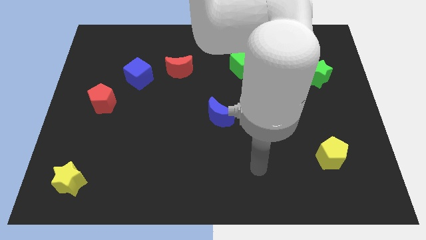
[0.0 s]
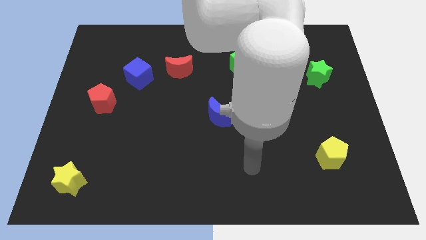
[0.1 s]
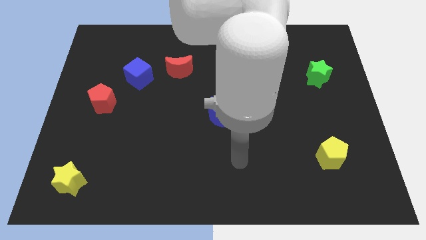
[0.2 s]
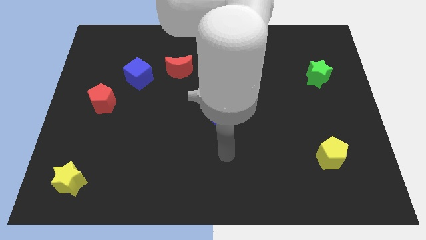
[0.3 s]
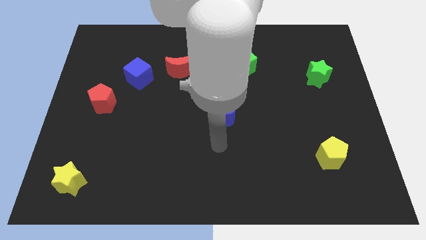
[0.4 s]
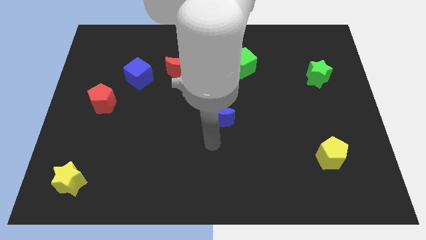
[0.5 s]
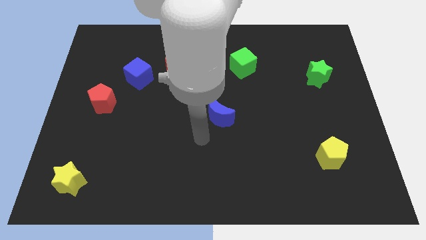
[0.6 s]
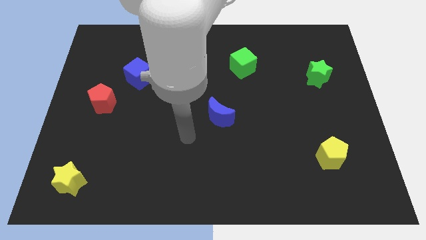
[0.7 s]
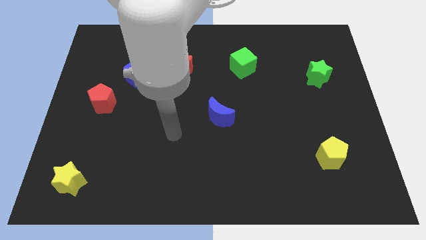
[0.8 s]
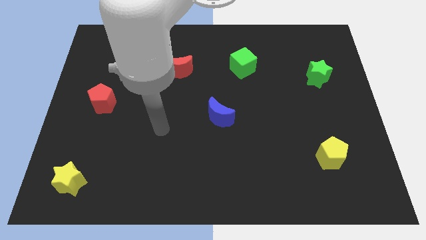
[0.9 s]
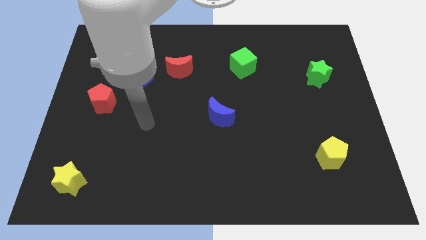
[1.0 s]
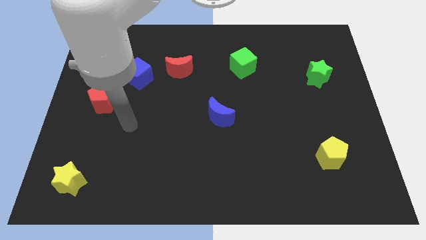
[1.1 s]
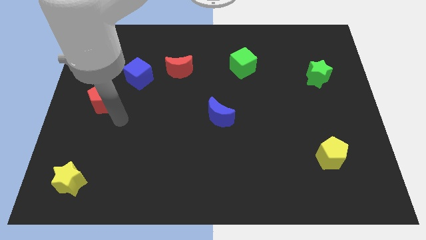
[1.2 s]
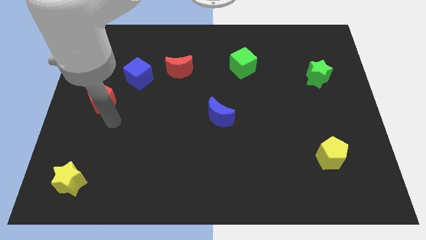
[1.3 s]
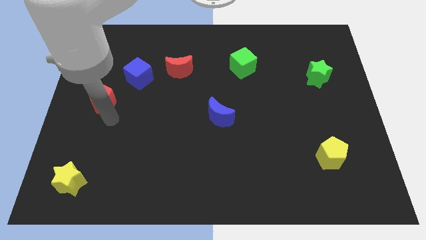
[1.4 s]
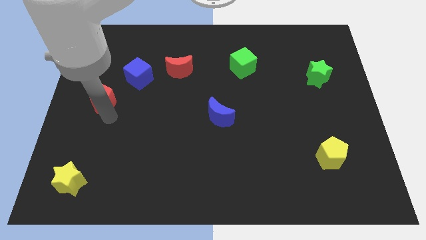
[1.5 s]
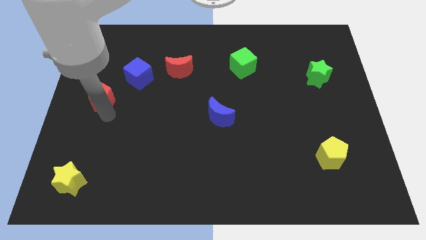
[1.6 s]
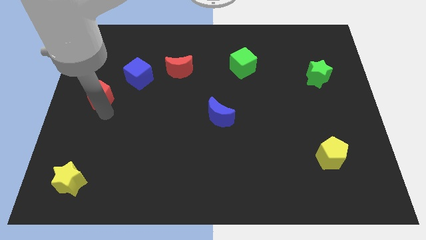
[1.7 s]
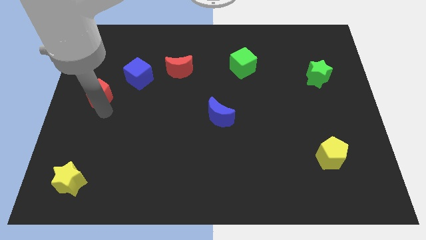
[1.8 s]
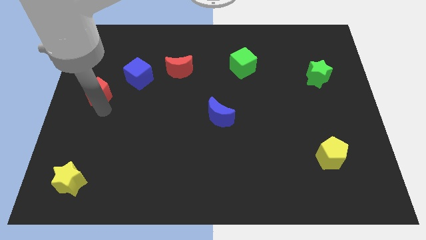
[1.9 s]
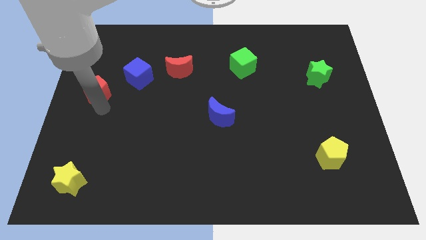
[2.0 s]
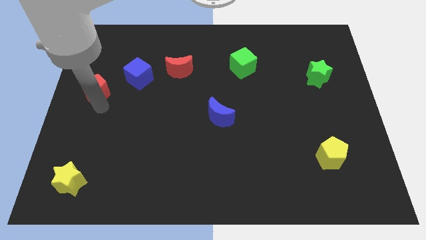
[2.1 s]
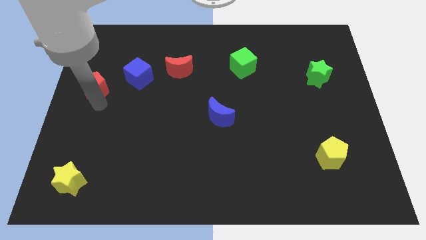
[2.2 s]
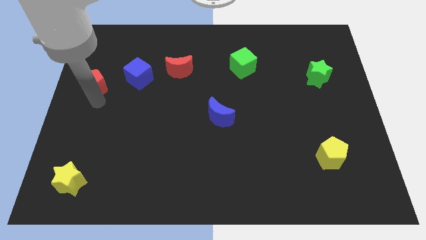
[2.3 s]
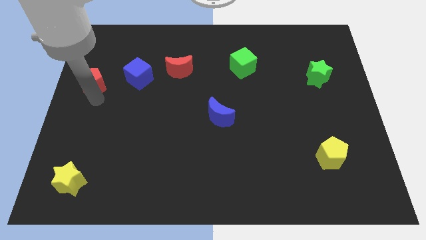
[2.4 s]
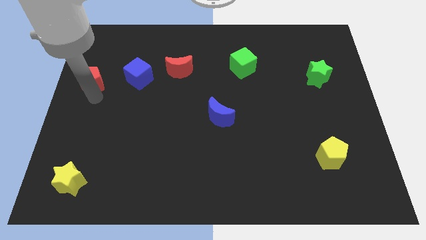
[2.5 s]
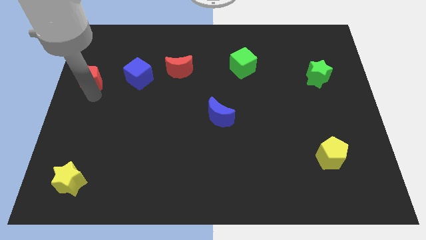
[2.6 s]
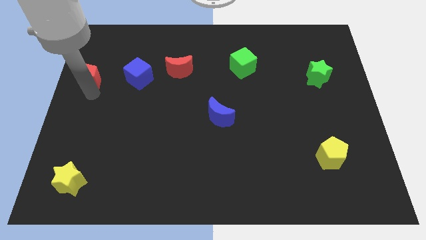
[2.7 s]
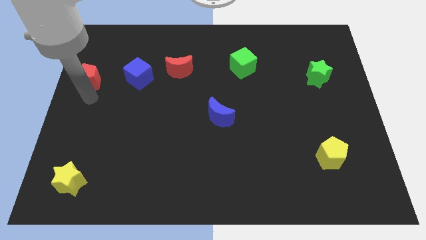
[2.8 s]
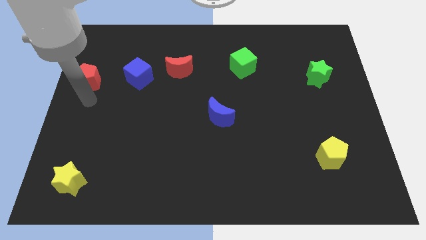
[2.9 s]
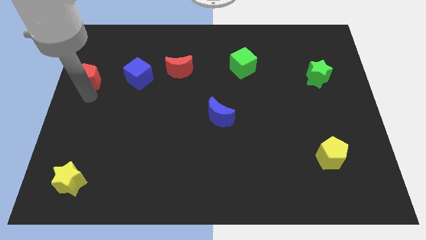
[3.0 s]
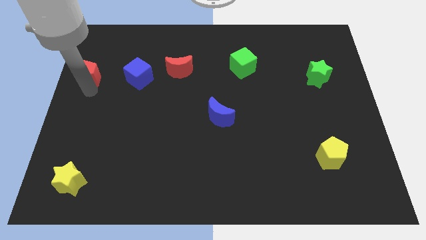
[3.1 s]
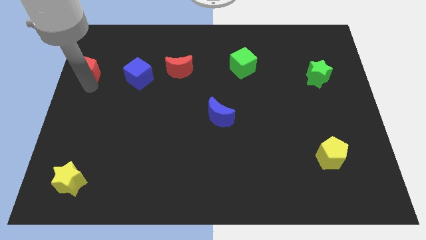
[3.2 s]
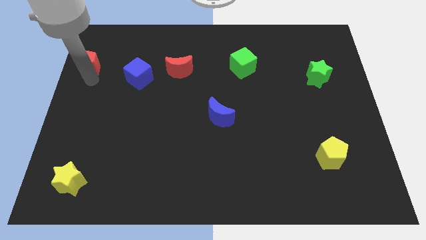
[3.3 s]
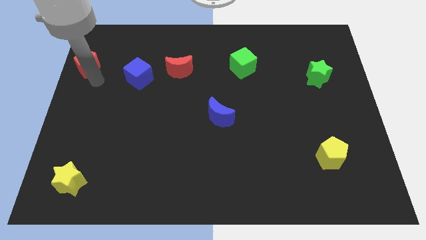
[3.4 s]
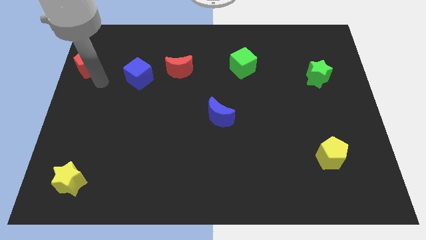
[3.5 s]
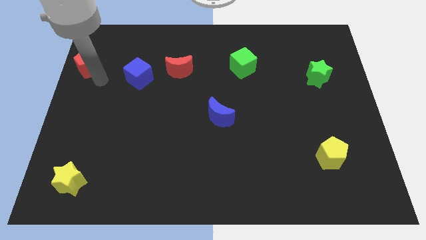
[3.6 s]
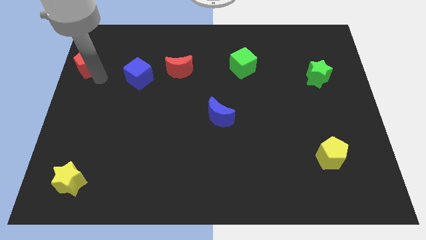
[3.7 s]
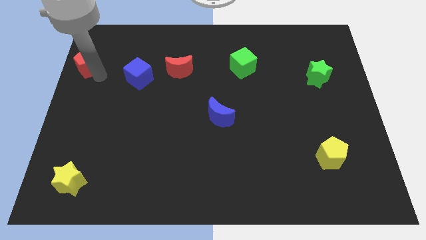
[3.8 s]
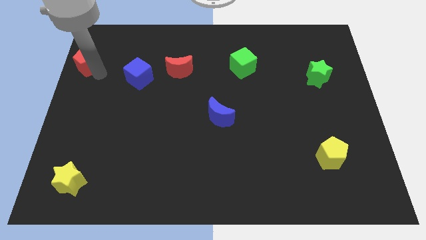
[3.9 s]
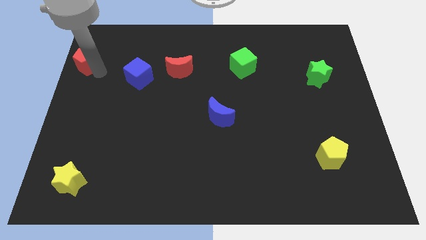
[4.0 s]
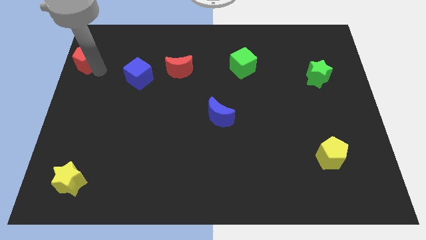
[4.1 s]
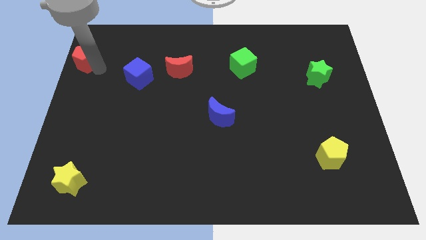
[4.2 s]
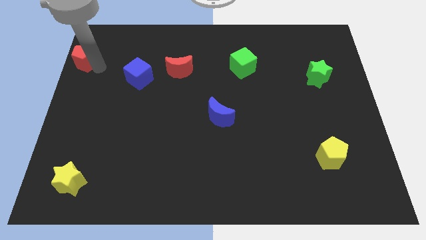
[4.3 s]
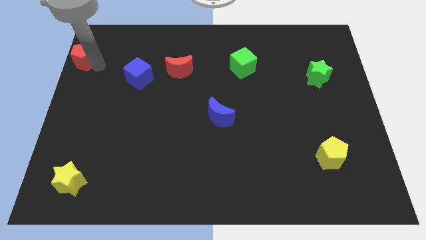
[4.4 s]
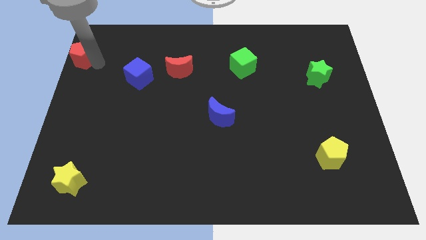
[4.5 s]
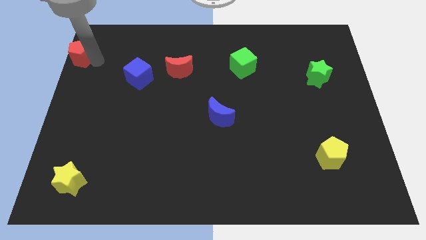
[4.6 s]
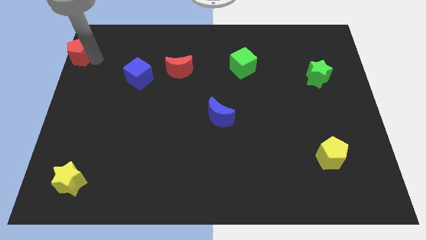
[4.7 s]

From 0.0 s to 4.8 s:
slide the red pentagon to the upper left corner

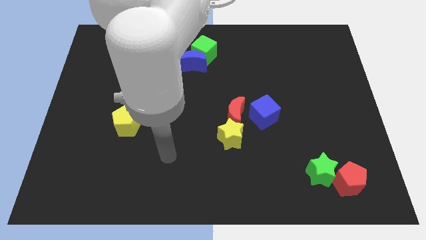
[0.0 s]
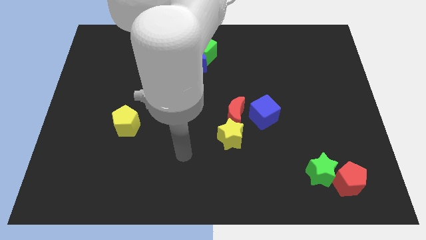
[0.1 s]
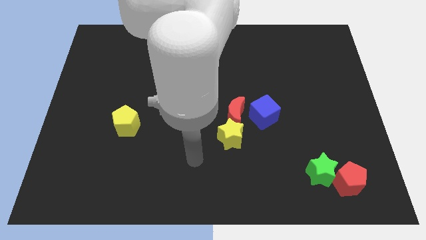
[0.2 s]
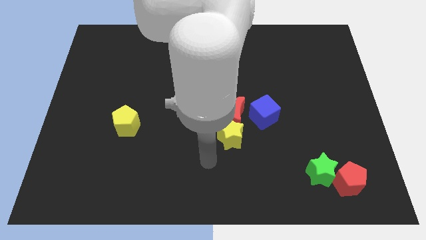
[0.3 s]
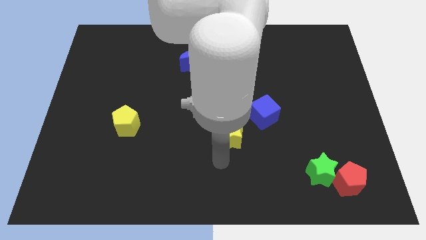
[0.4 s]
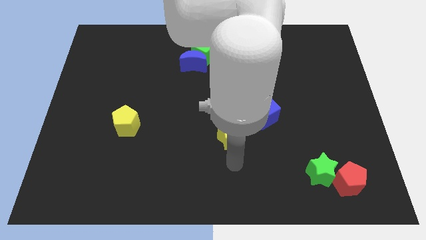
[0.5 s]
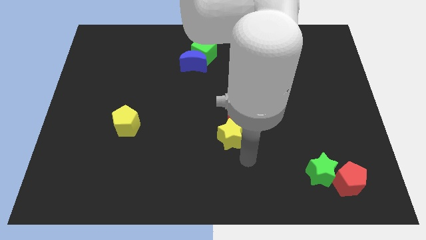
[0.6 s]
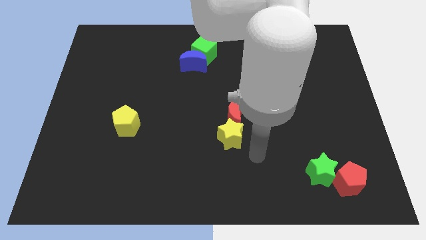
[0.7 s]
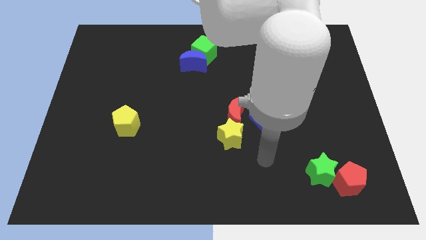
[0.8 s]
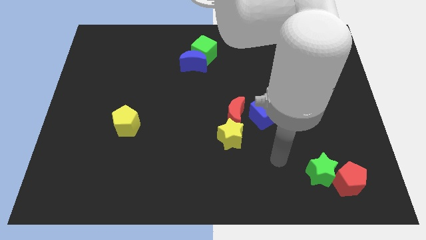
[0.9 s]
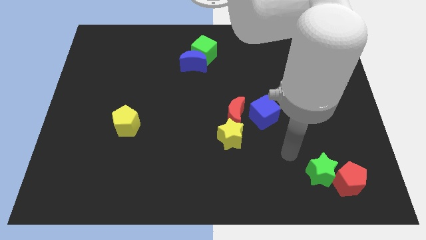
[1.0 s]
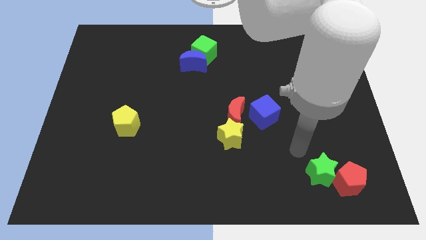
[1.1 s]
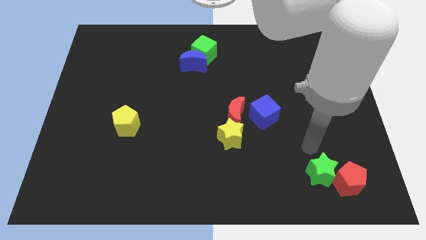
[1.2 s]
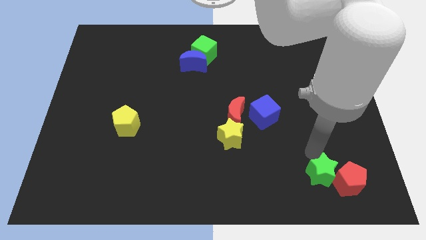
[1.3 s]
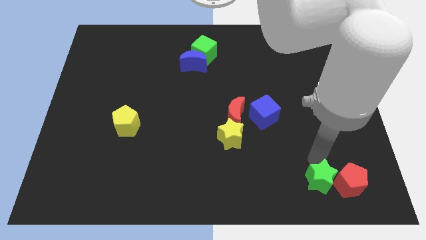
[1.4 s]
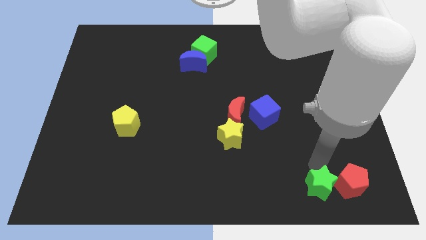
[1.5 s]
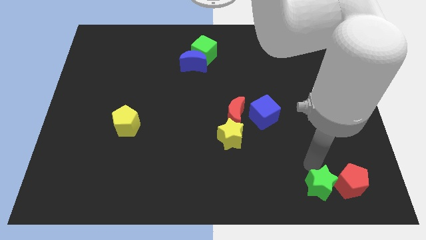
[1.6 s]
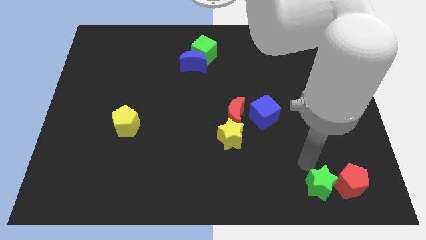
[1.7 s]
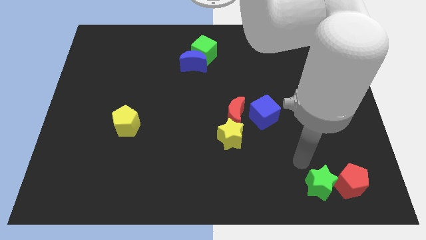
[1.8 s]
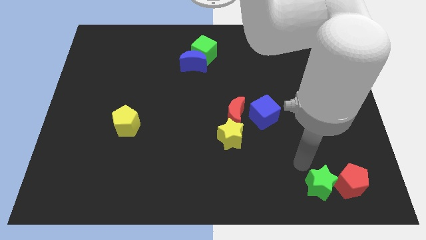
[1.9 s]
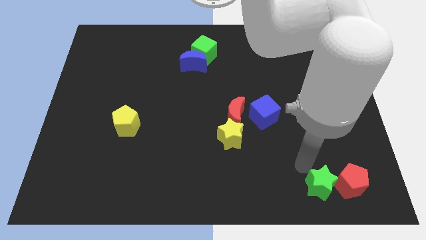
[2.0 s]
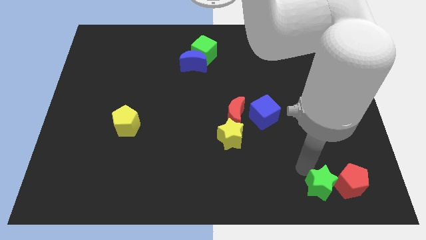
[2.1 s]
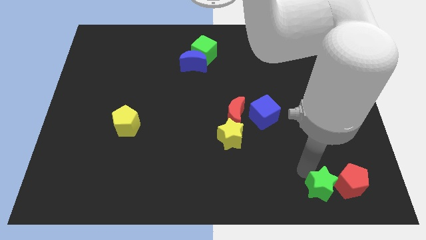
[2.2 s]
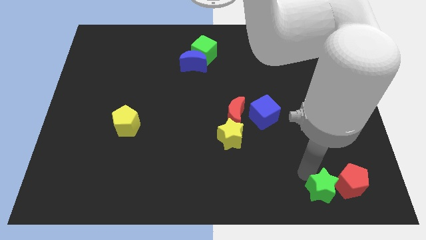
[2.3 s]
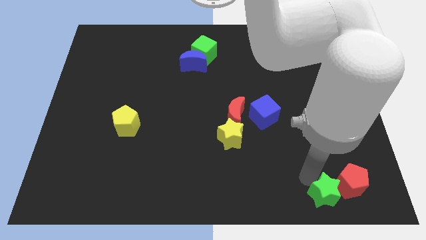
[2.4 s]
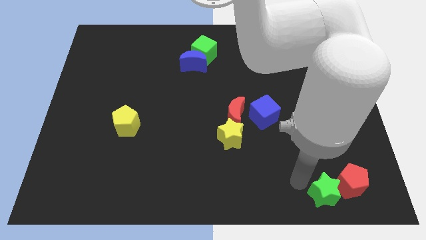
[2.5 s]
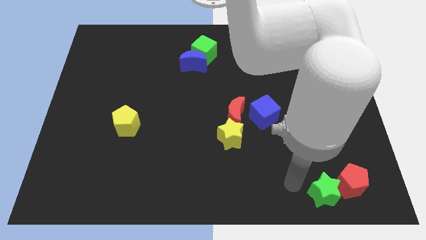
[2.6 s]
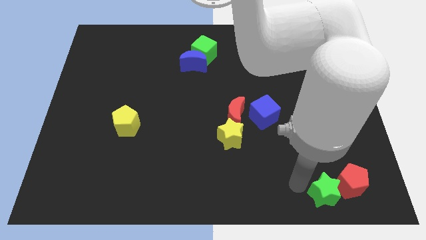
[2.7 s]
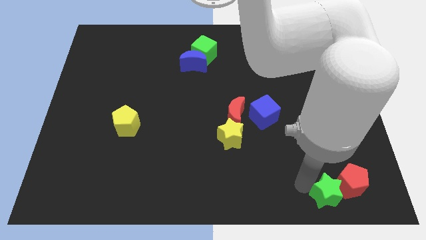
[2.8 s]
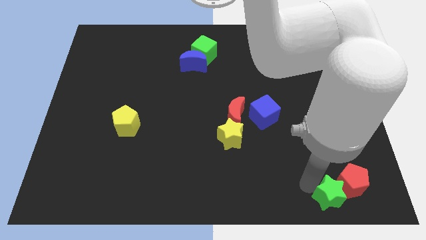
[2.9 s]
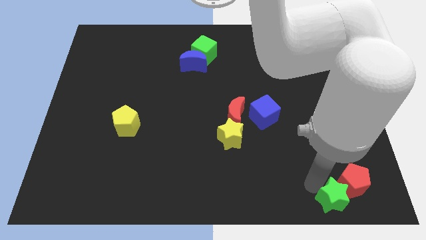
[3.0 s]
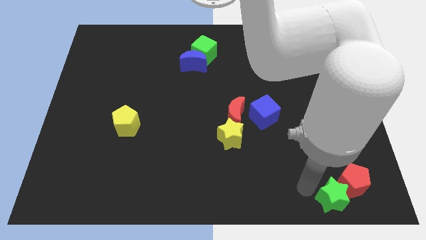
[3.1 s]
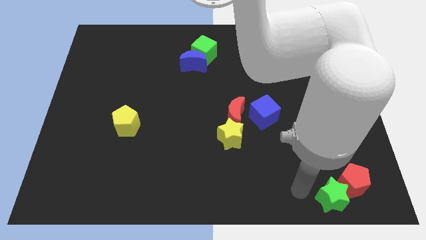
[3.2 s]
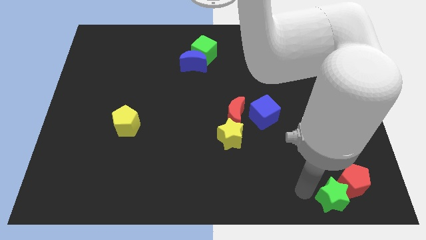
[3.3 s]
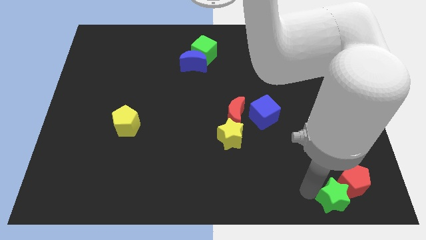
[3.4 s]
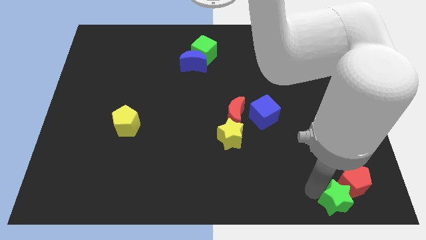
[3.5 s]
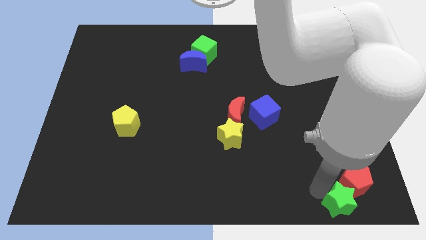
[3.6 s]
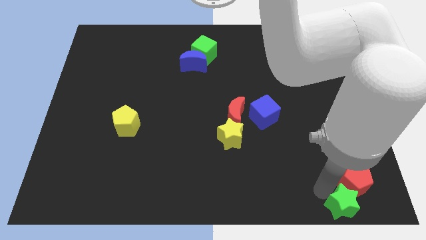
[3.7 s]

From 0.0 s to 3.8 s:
put the green star to the bottom right
